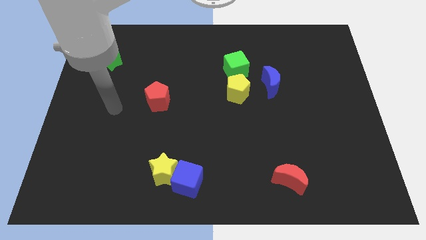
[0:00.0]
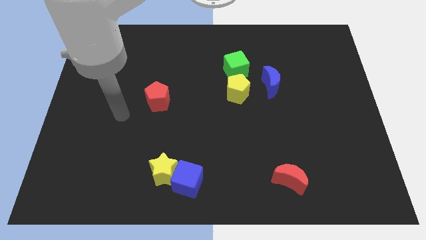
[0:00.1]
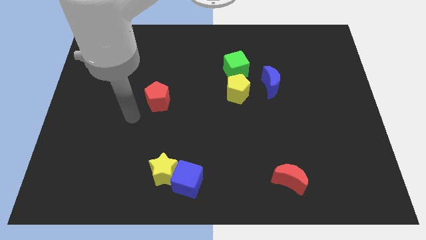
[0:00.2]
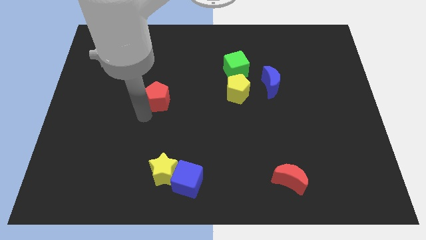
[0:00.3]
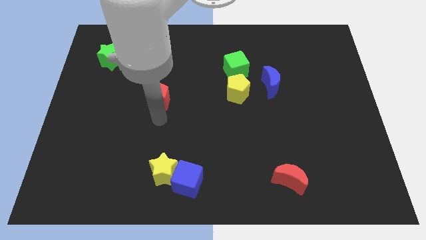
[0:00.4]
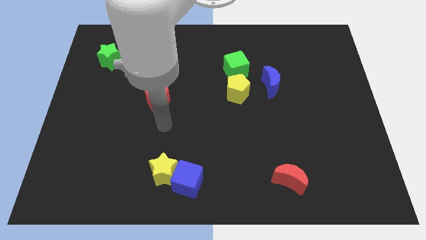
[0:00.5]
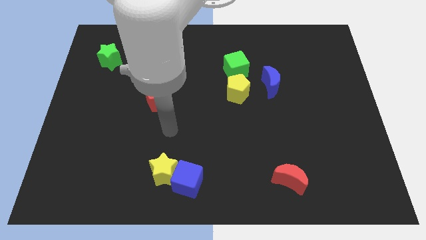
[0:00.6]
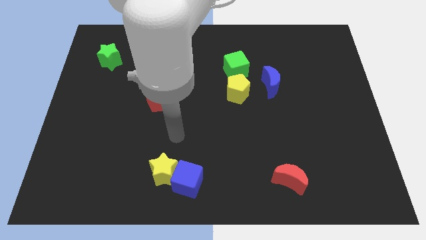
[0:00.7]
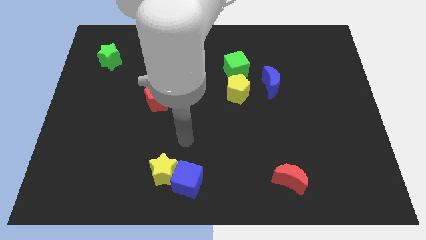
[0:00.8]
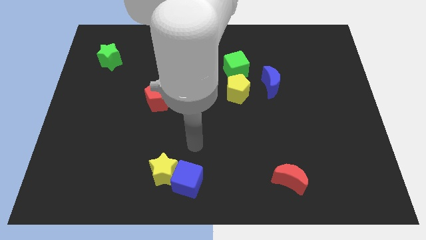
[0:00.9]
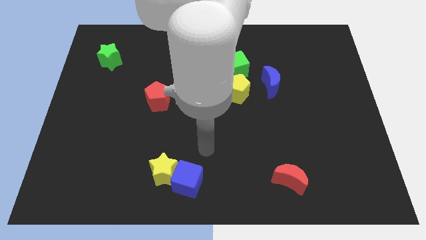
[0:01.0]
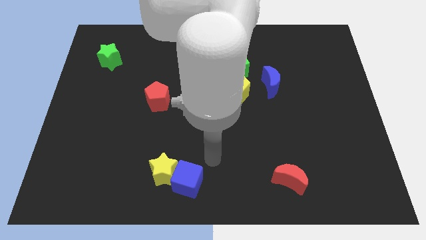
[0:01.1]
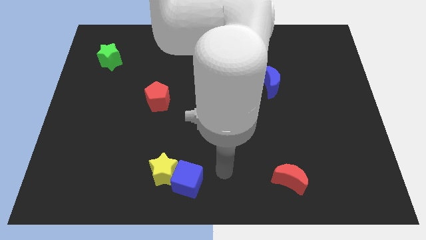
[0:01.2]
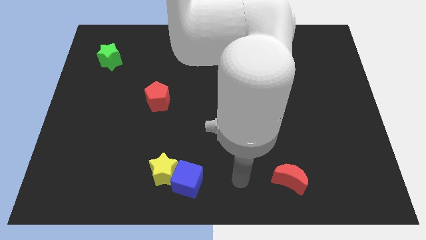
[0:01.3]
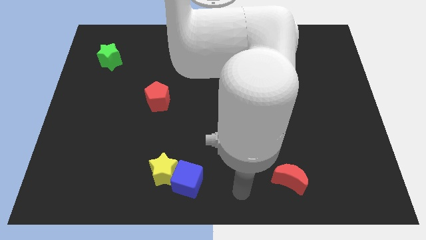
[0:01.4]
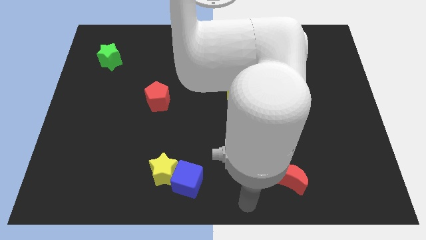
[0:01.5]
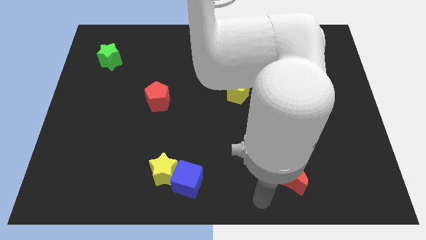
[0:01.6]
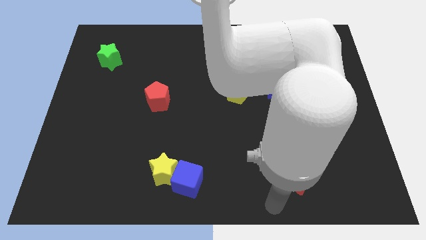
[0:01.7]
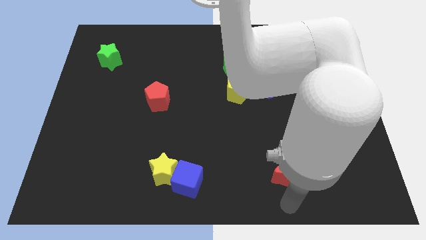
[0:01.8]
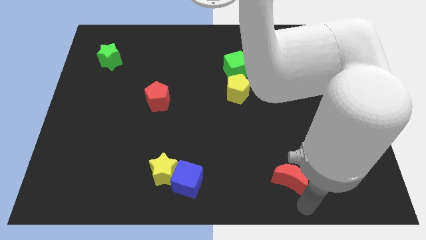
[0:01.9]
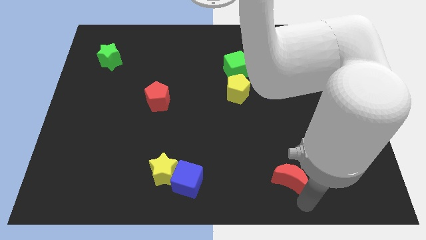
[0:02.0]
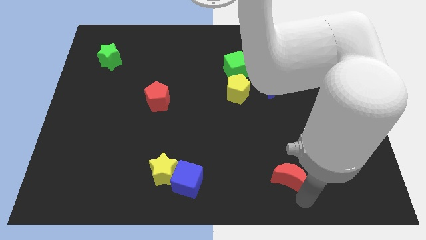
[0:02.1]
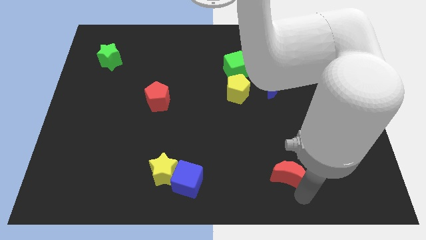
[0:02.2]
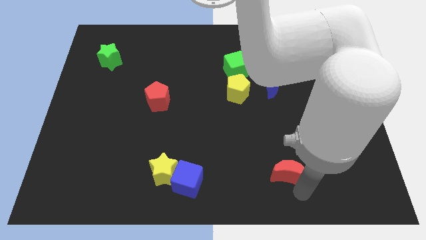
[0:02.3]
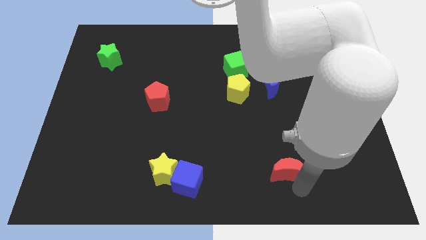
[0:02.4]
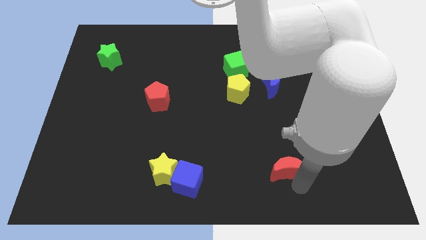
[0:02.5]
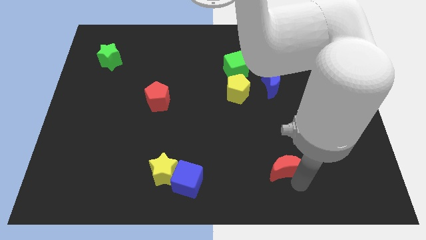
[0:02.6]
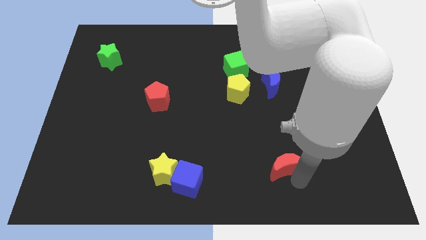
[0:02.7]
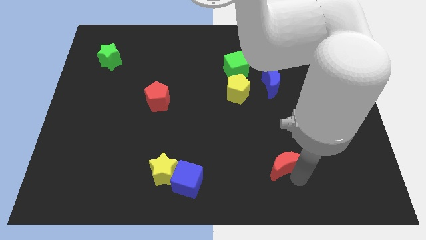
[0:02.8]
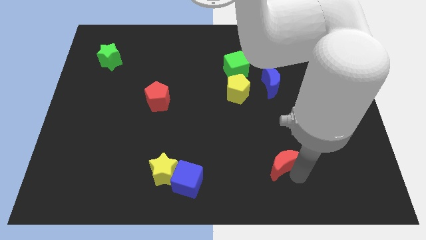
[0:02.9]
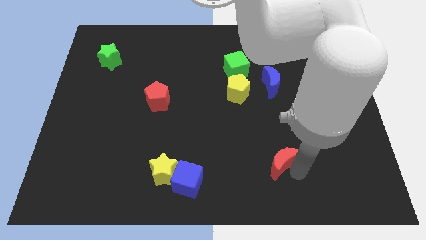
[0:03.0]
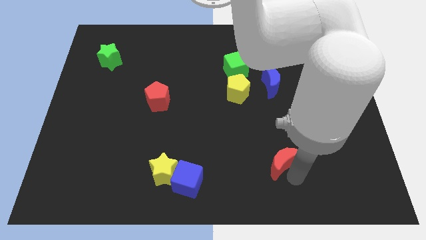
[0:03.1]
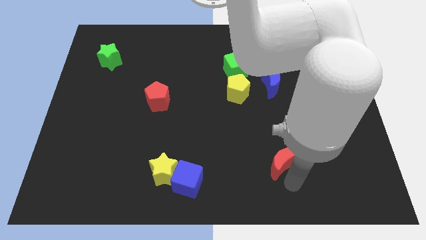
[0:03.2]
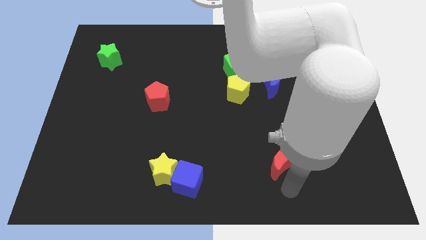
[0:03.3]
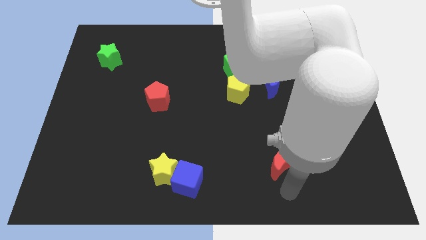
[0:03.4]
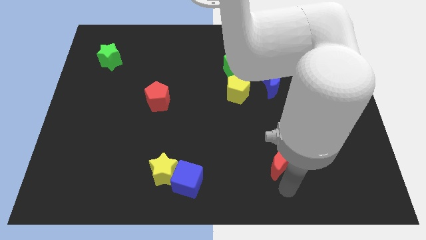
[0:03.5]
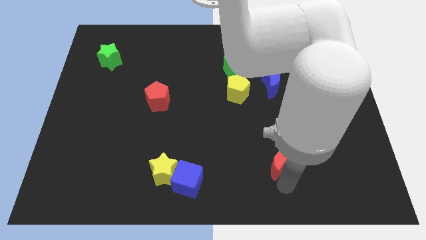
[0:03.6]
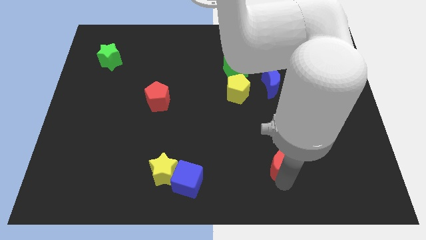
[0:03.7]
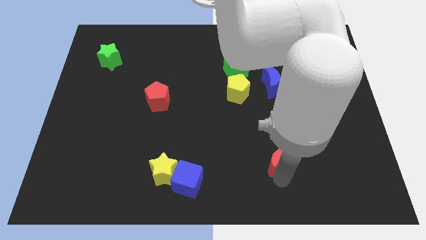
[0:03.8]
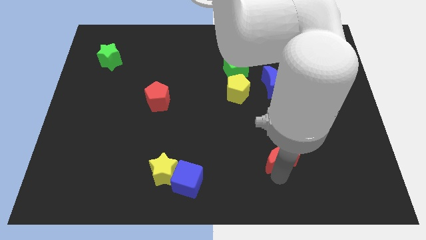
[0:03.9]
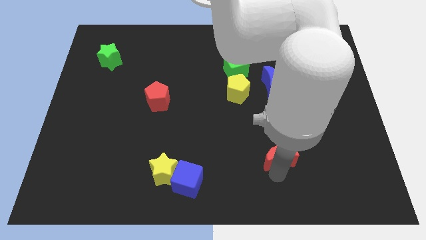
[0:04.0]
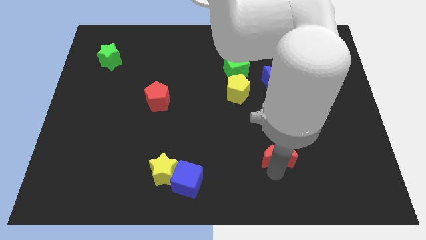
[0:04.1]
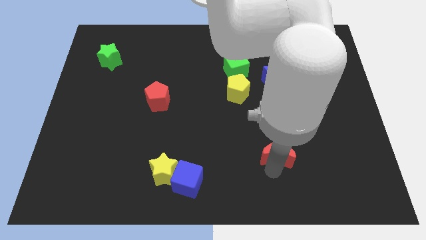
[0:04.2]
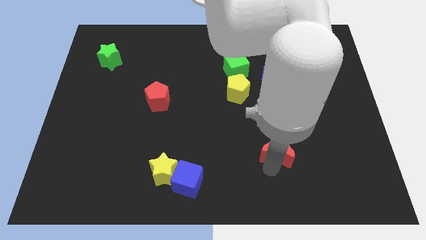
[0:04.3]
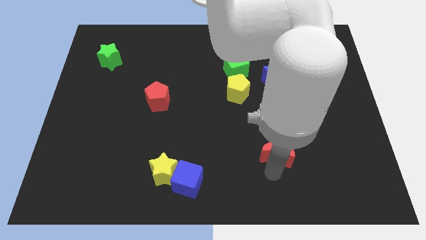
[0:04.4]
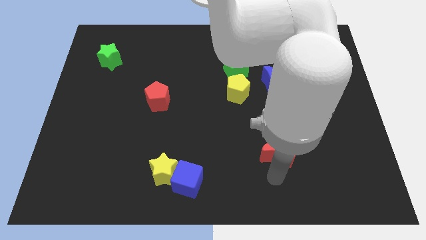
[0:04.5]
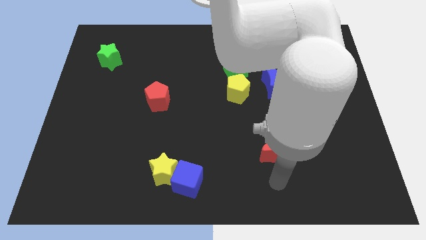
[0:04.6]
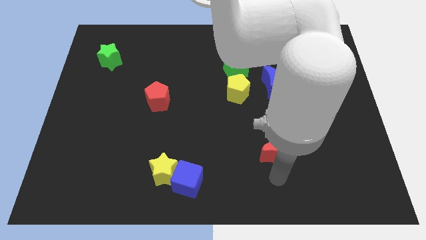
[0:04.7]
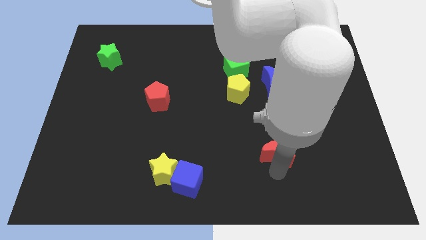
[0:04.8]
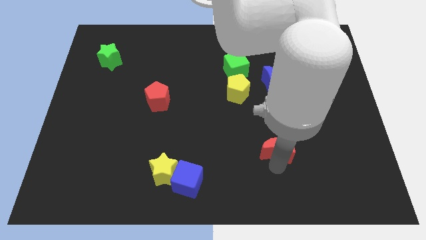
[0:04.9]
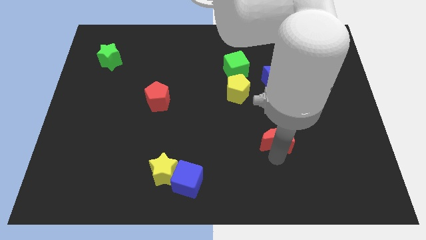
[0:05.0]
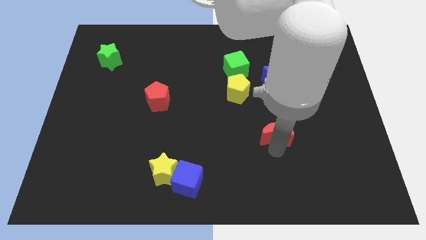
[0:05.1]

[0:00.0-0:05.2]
push the red moon below the blue moon

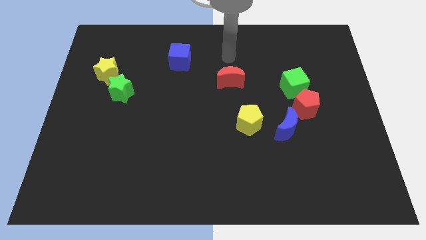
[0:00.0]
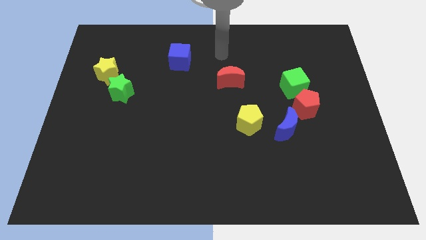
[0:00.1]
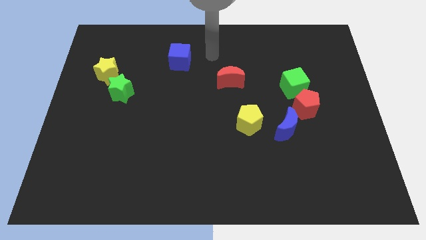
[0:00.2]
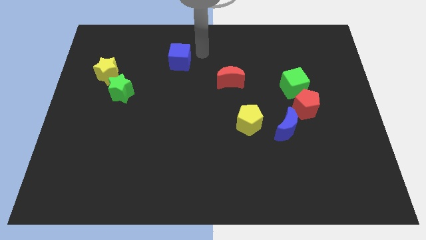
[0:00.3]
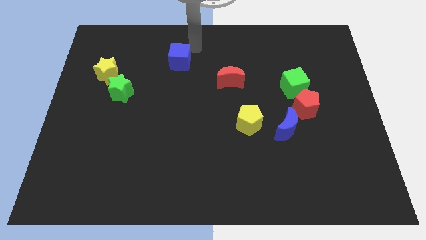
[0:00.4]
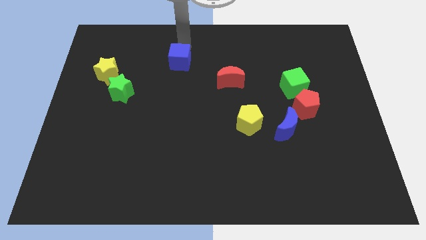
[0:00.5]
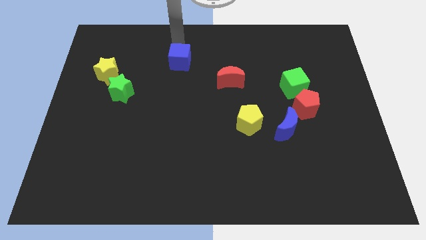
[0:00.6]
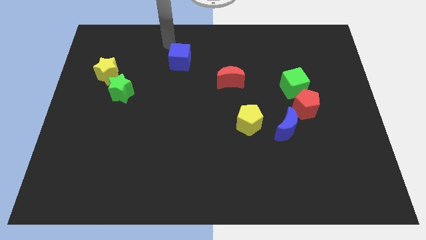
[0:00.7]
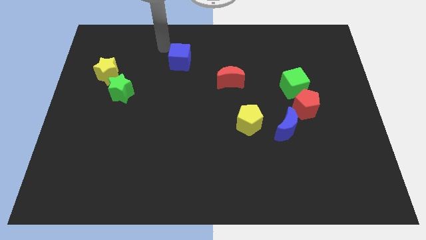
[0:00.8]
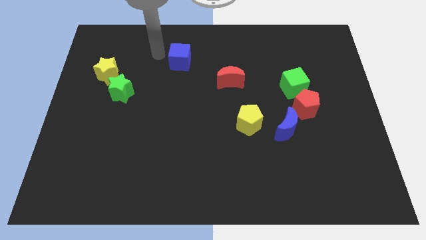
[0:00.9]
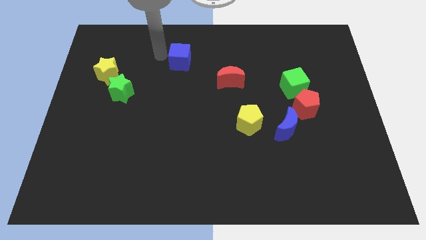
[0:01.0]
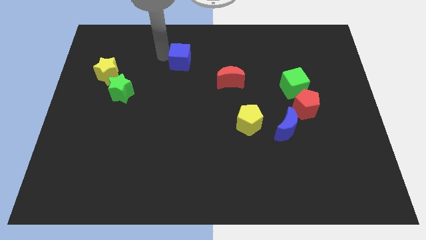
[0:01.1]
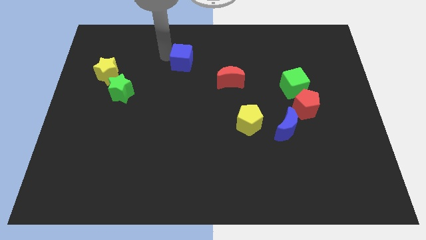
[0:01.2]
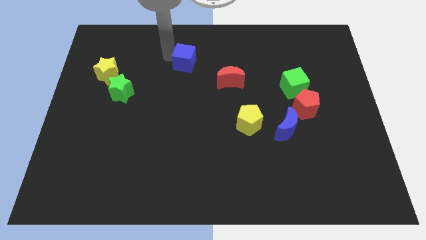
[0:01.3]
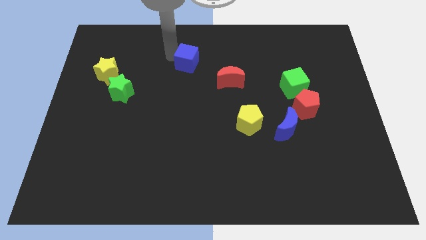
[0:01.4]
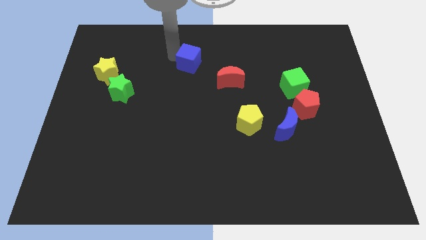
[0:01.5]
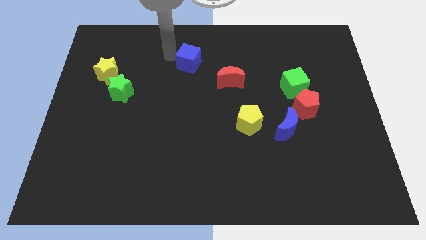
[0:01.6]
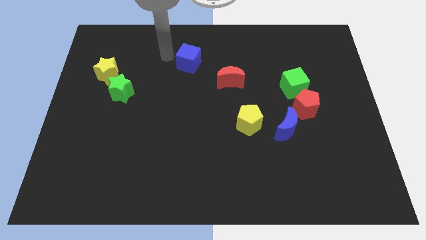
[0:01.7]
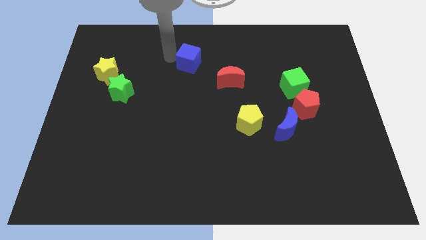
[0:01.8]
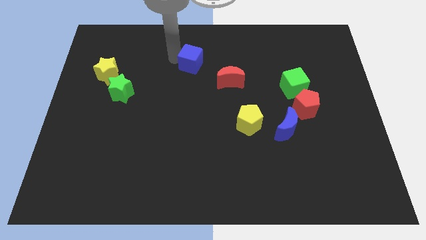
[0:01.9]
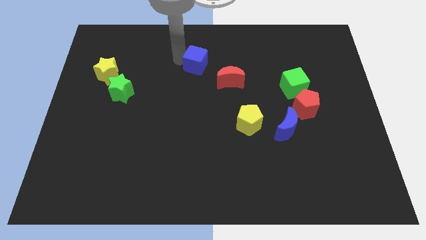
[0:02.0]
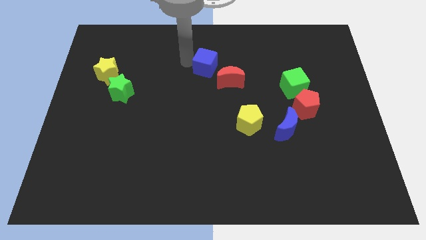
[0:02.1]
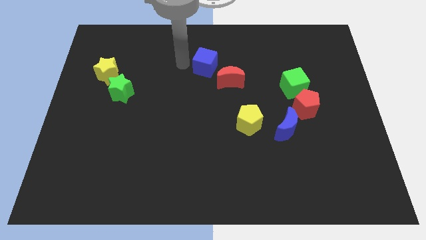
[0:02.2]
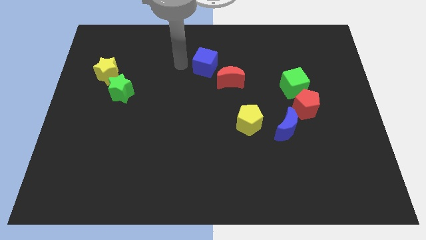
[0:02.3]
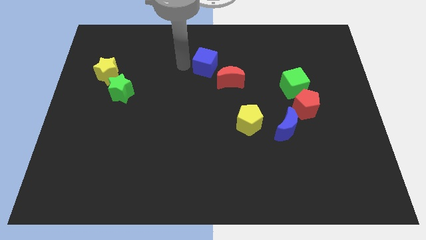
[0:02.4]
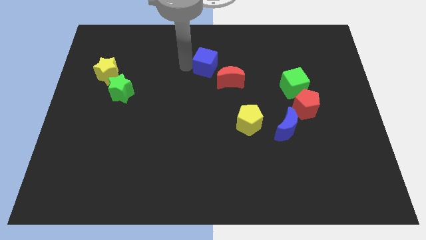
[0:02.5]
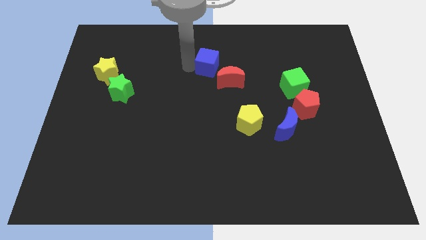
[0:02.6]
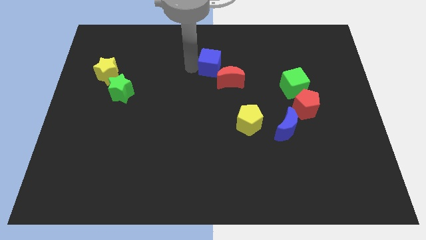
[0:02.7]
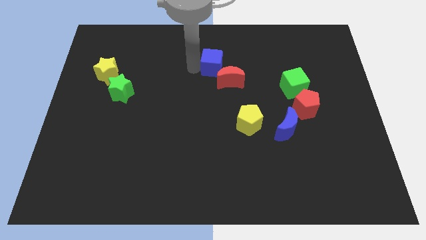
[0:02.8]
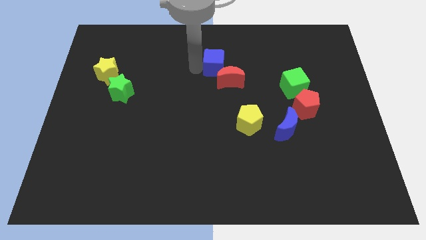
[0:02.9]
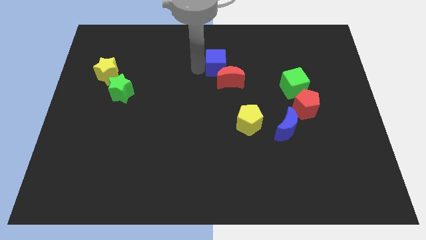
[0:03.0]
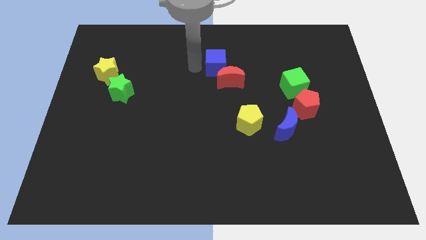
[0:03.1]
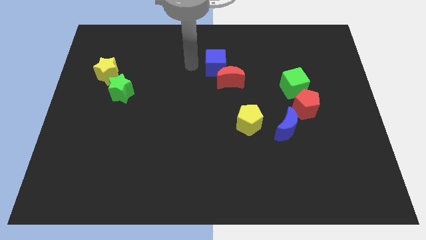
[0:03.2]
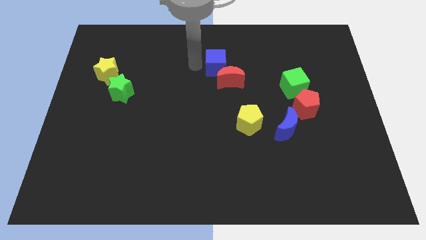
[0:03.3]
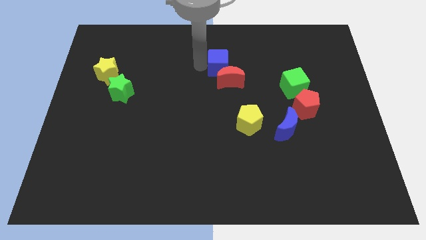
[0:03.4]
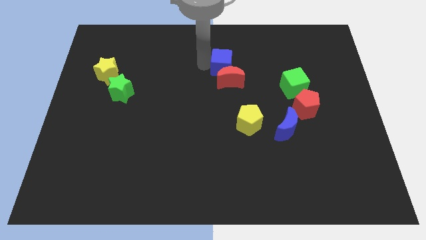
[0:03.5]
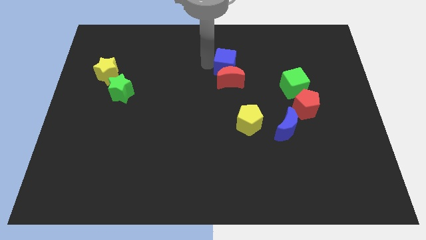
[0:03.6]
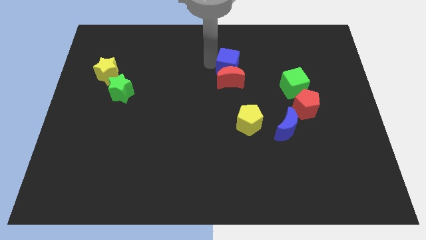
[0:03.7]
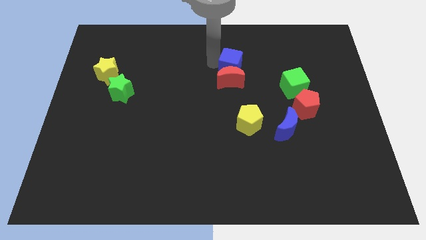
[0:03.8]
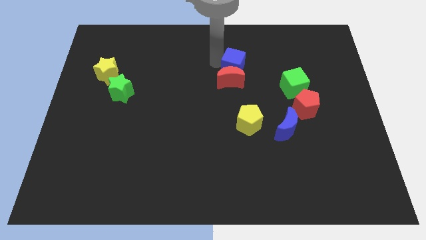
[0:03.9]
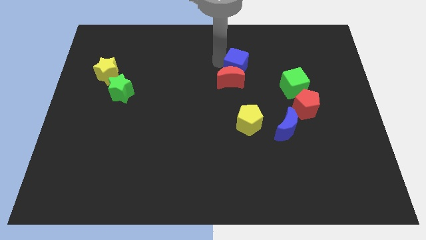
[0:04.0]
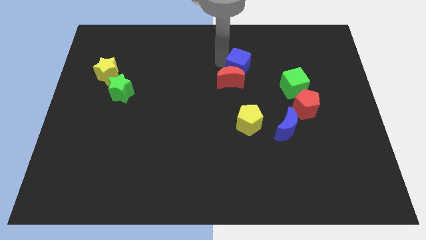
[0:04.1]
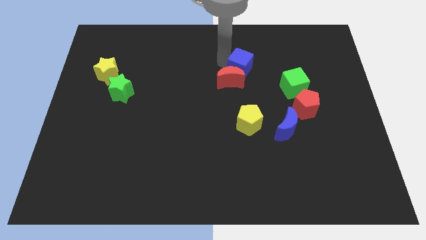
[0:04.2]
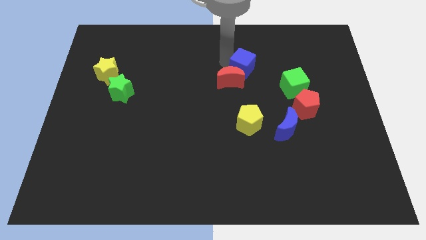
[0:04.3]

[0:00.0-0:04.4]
slide the blue cube to the right of the red moon
